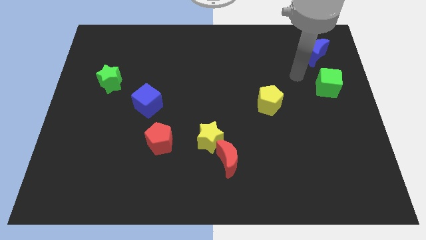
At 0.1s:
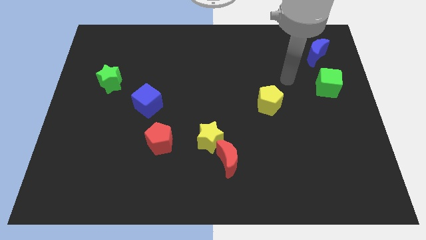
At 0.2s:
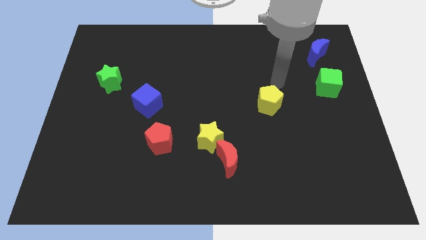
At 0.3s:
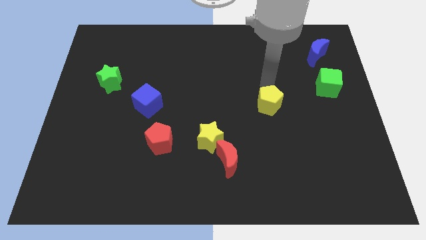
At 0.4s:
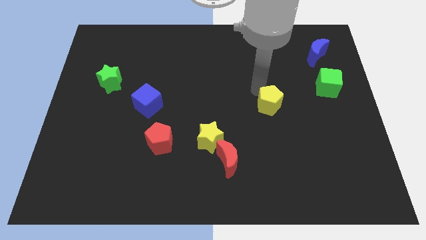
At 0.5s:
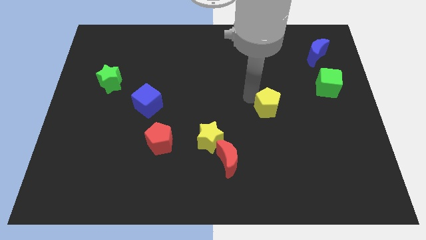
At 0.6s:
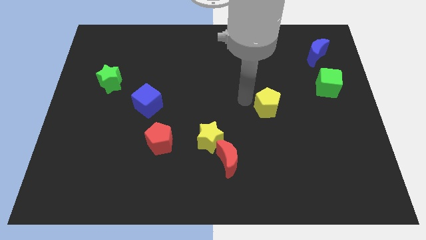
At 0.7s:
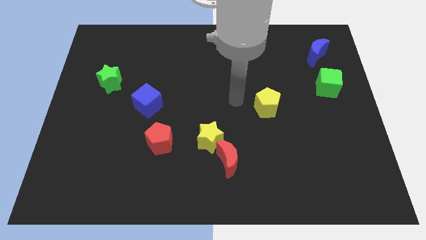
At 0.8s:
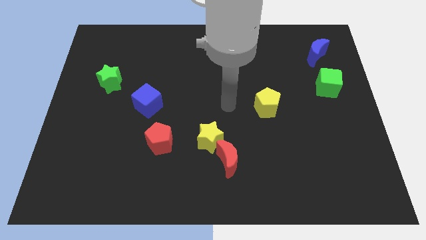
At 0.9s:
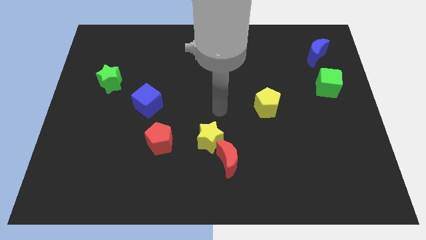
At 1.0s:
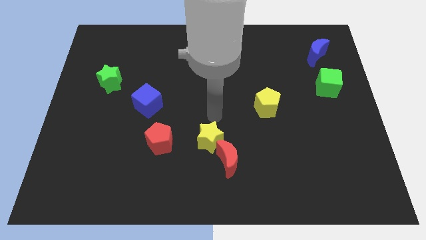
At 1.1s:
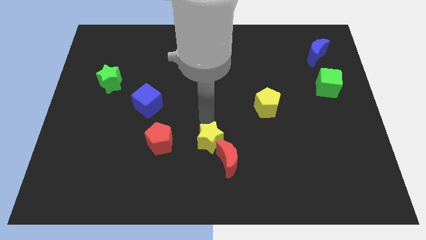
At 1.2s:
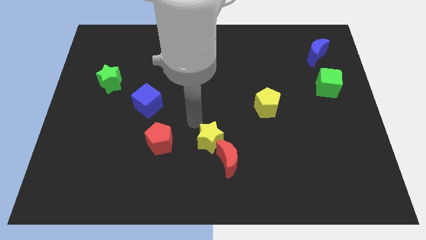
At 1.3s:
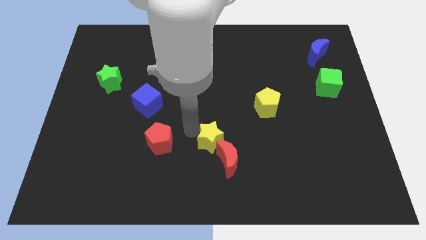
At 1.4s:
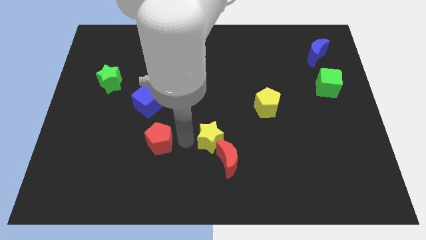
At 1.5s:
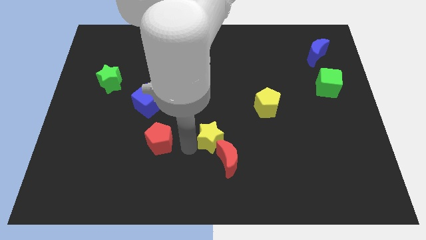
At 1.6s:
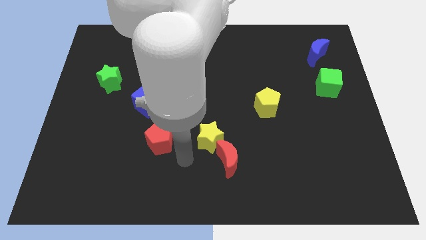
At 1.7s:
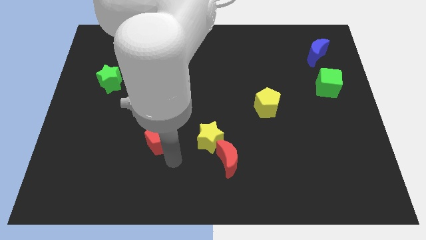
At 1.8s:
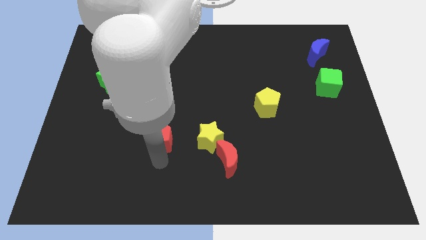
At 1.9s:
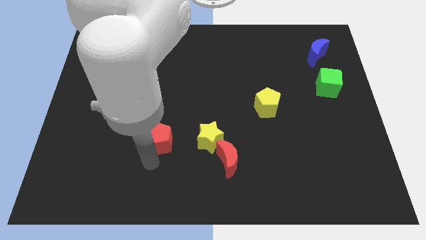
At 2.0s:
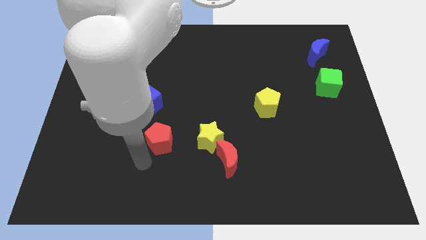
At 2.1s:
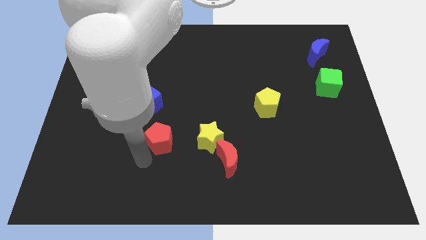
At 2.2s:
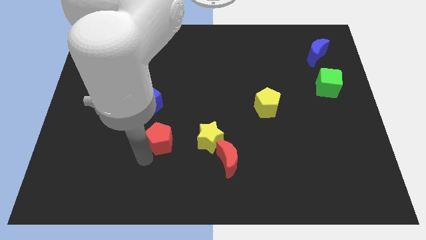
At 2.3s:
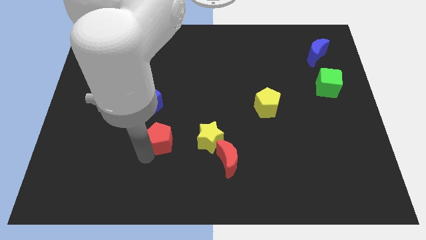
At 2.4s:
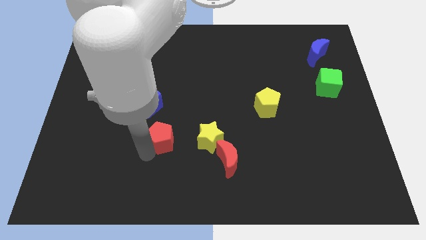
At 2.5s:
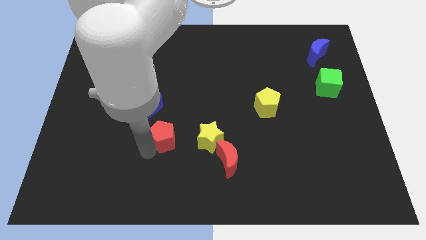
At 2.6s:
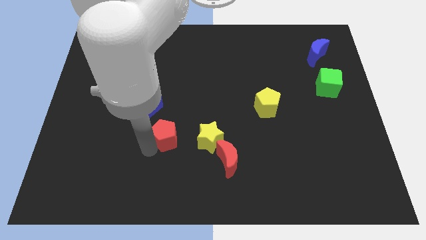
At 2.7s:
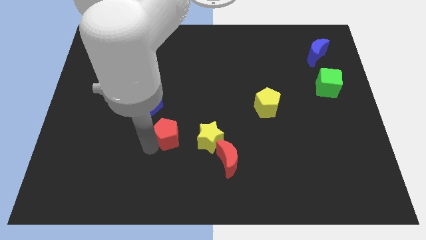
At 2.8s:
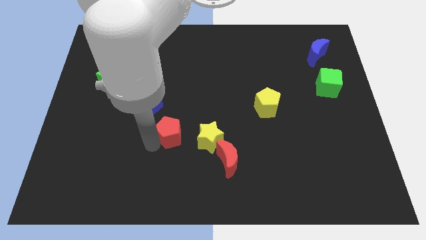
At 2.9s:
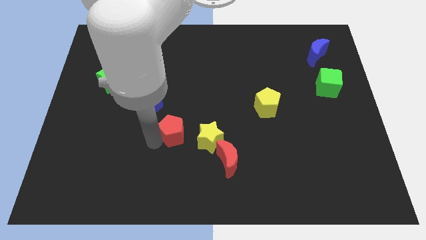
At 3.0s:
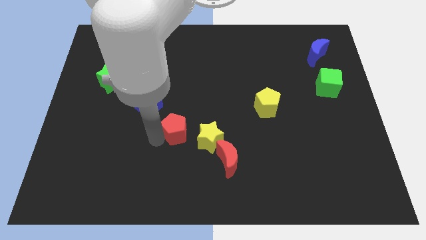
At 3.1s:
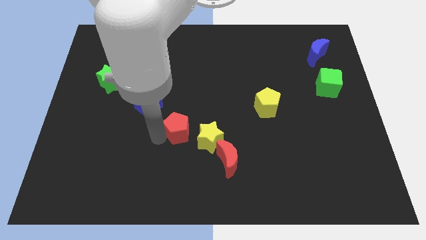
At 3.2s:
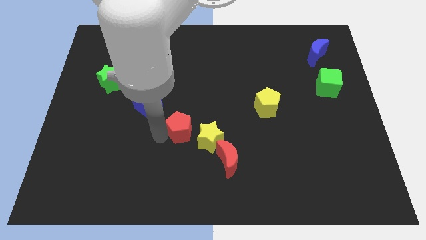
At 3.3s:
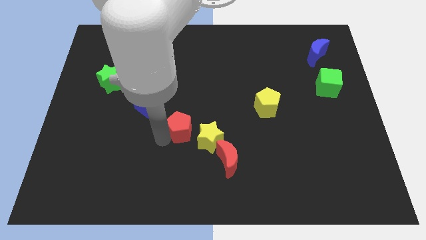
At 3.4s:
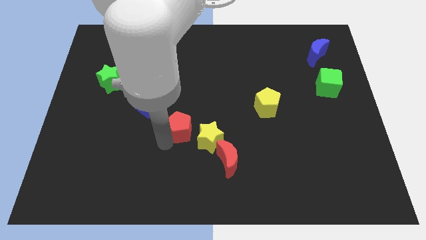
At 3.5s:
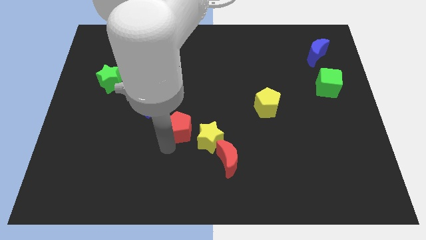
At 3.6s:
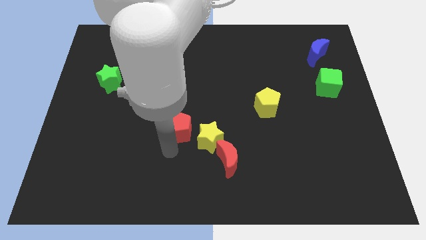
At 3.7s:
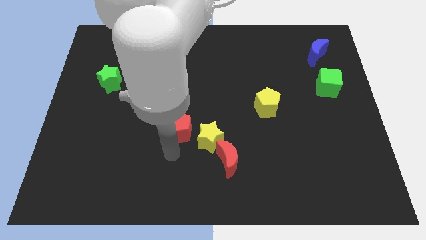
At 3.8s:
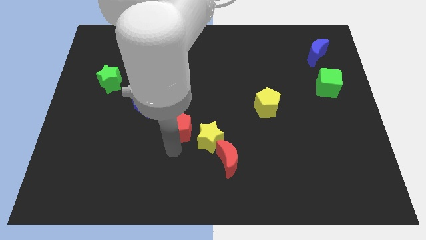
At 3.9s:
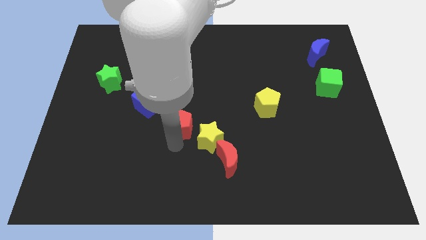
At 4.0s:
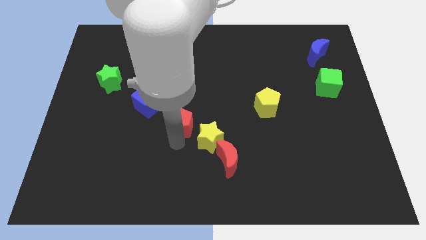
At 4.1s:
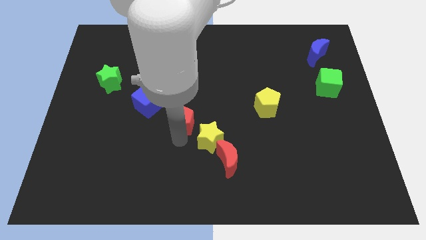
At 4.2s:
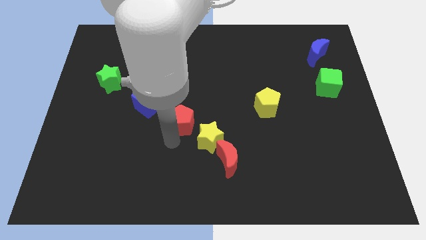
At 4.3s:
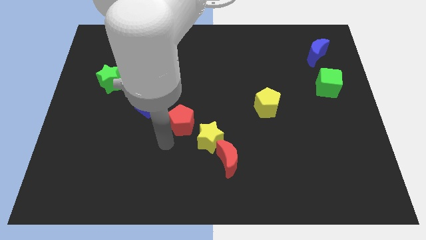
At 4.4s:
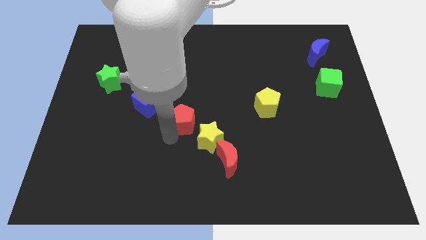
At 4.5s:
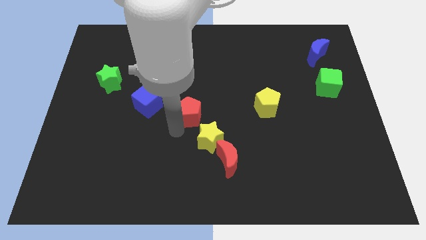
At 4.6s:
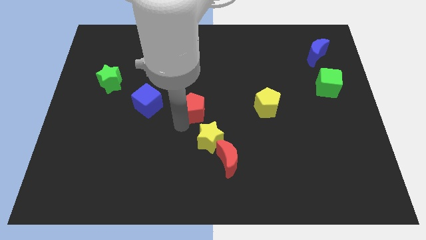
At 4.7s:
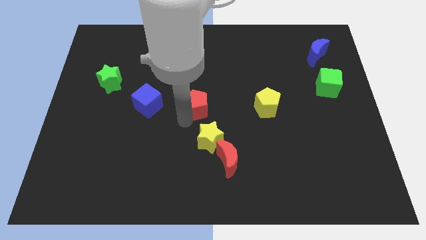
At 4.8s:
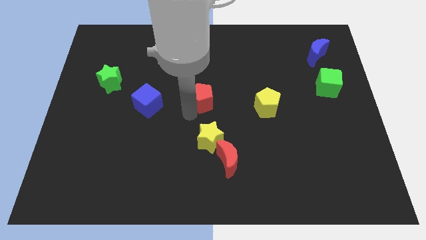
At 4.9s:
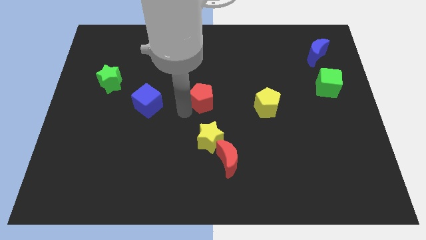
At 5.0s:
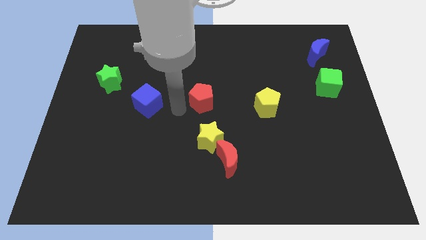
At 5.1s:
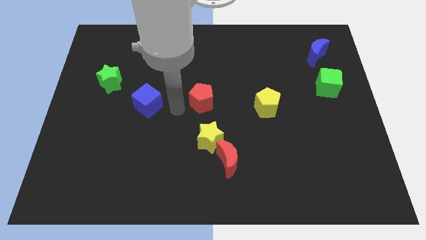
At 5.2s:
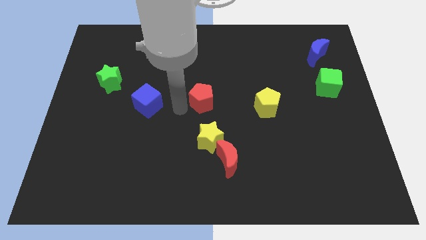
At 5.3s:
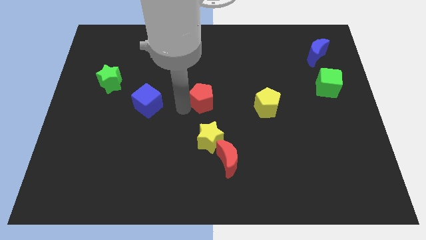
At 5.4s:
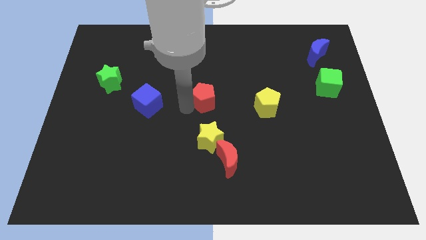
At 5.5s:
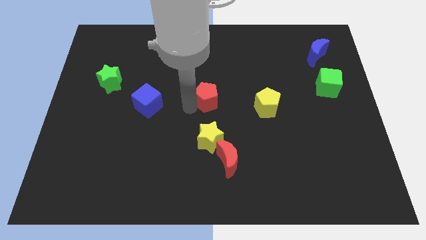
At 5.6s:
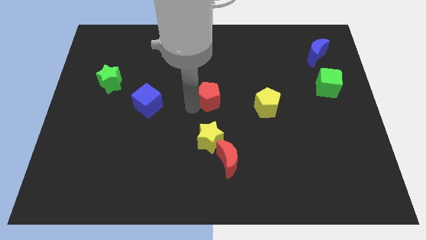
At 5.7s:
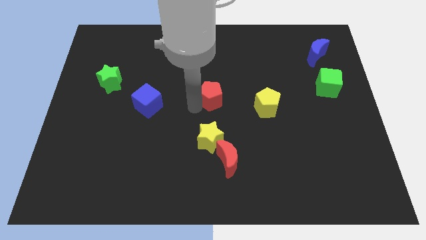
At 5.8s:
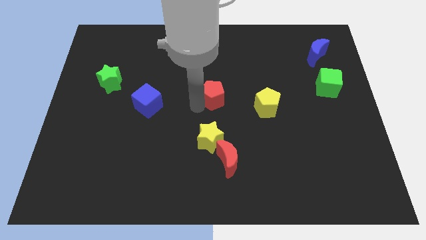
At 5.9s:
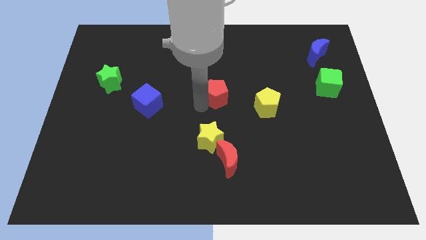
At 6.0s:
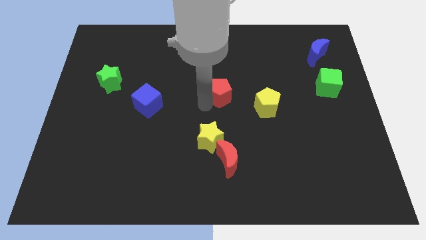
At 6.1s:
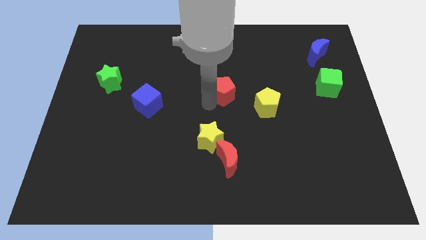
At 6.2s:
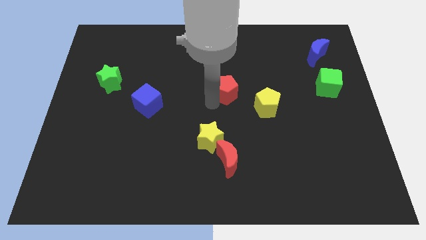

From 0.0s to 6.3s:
move the red pentagon up and to the right diagonally

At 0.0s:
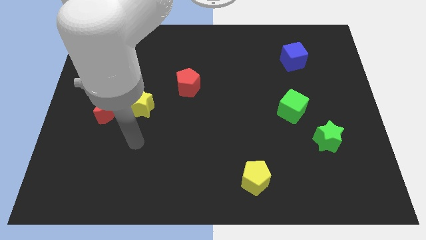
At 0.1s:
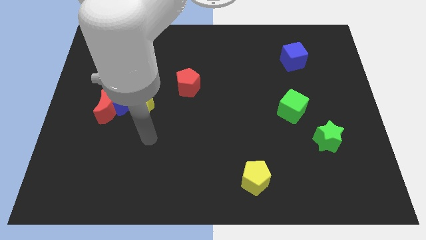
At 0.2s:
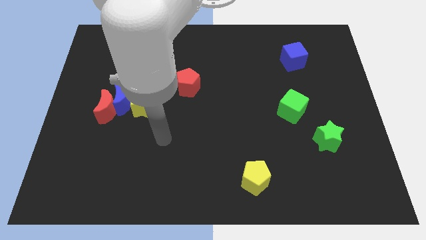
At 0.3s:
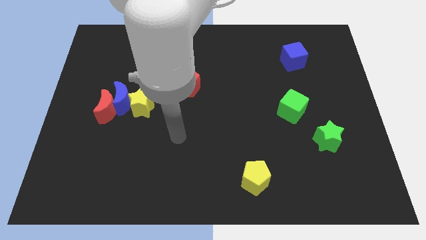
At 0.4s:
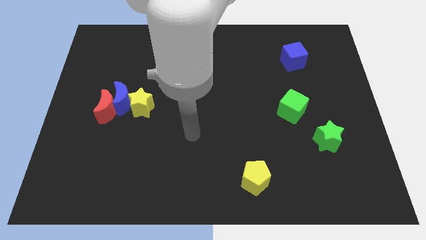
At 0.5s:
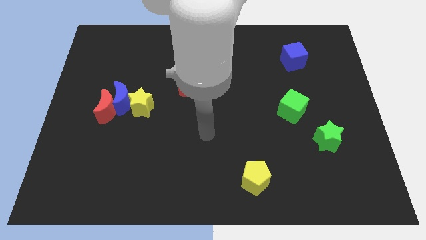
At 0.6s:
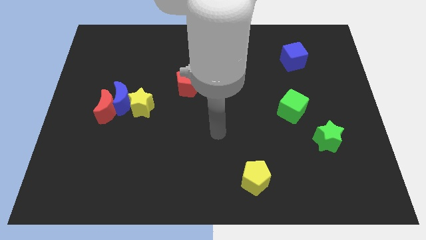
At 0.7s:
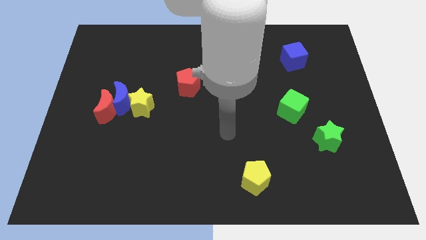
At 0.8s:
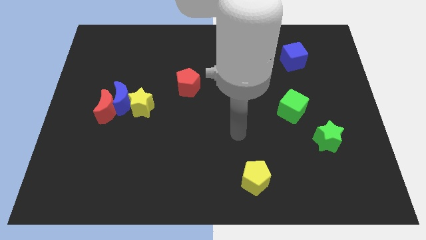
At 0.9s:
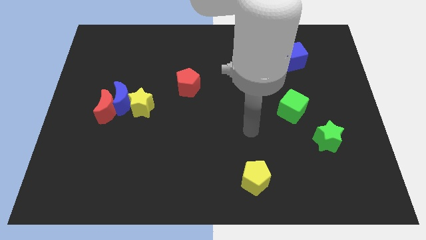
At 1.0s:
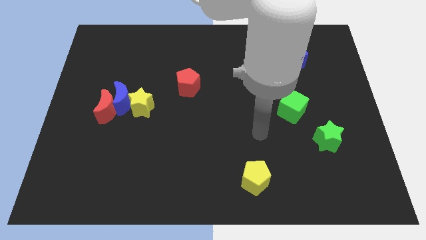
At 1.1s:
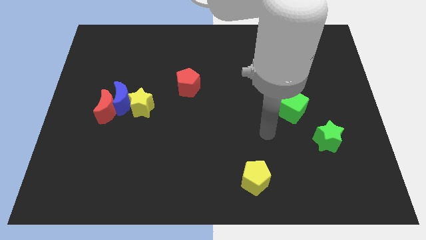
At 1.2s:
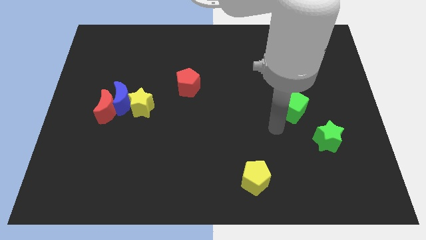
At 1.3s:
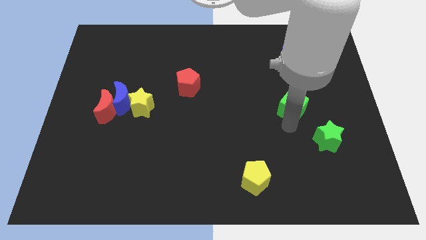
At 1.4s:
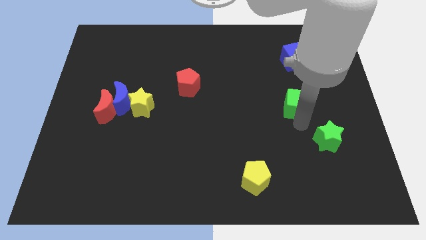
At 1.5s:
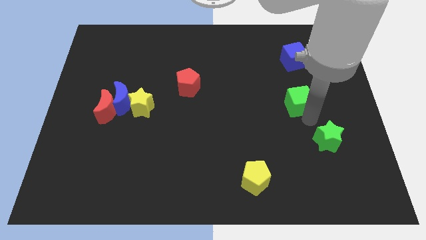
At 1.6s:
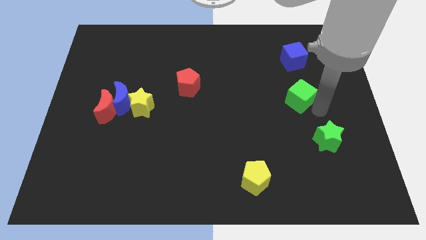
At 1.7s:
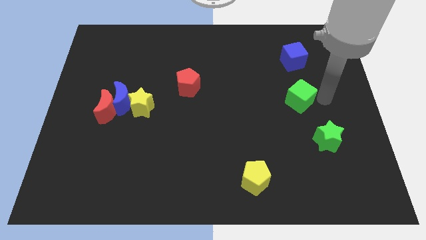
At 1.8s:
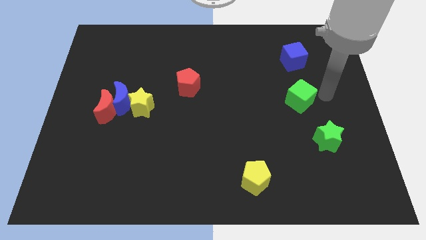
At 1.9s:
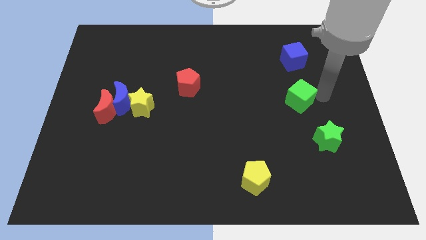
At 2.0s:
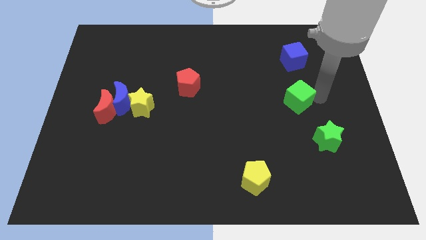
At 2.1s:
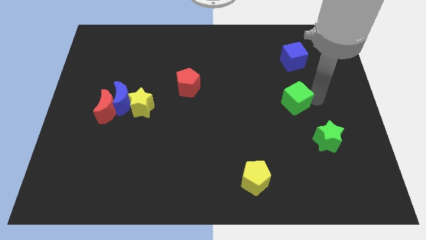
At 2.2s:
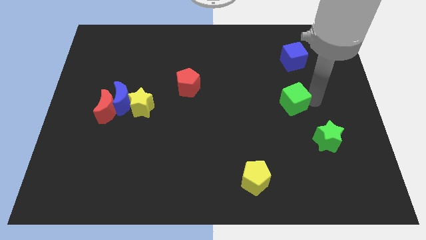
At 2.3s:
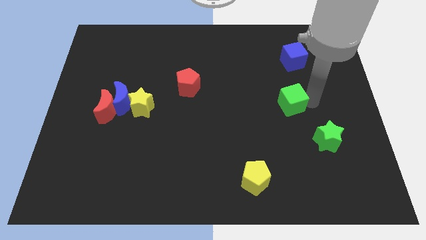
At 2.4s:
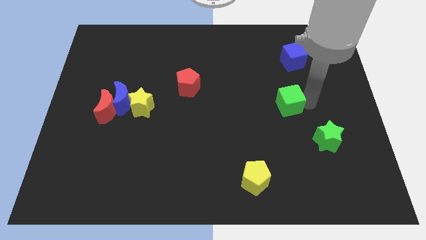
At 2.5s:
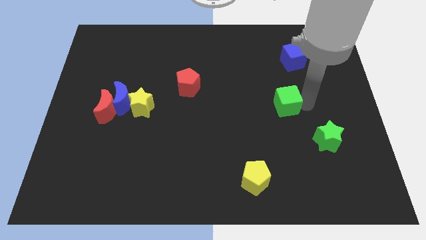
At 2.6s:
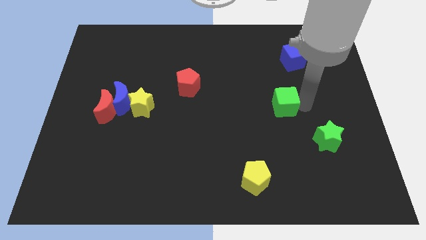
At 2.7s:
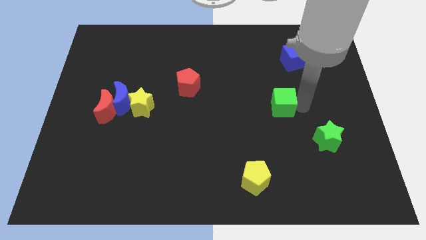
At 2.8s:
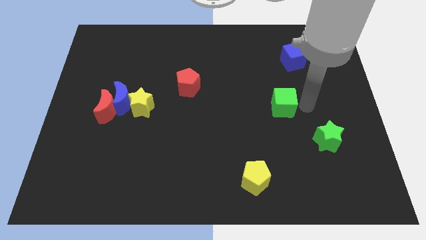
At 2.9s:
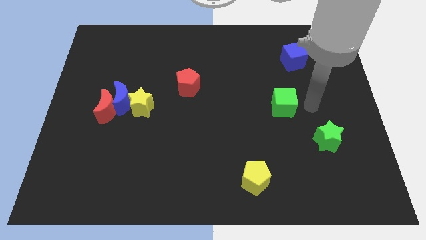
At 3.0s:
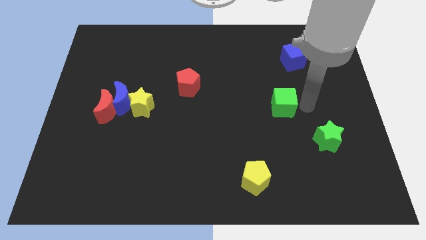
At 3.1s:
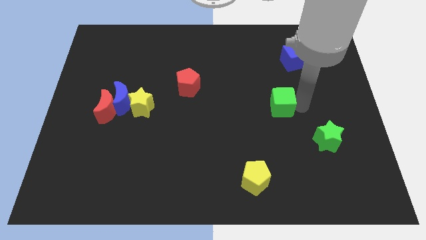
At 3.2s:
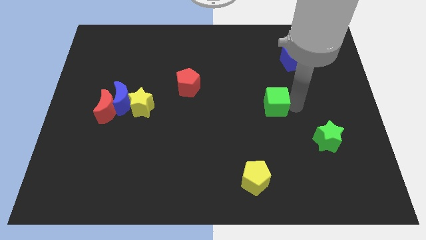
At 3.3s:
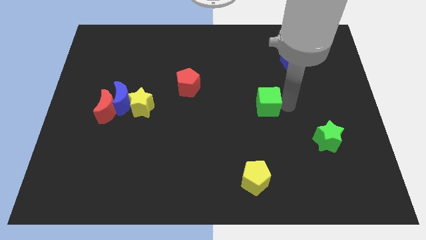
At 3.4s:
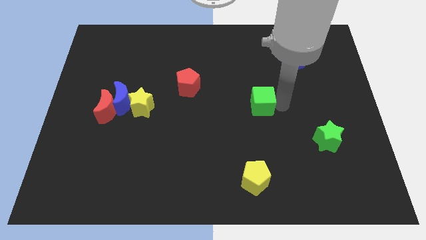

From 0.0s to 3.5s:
slide the green cube left a little
